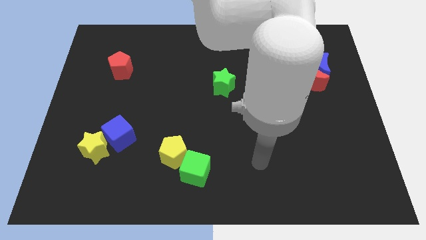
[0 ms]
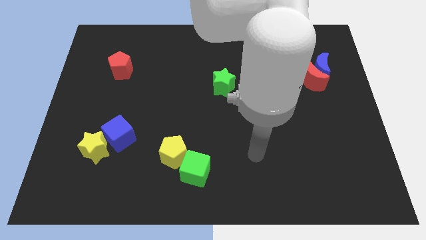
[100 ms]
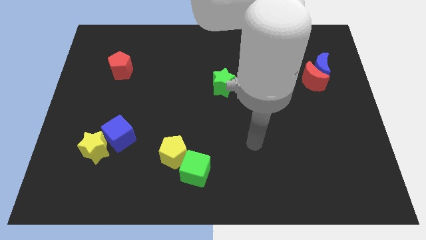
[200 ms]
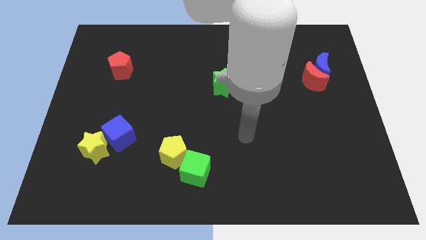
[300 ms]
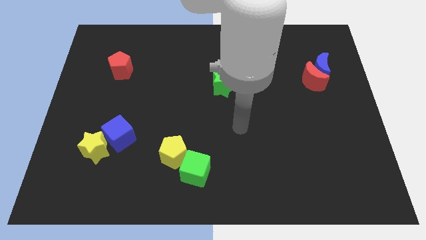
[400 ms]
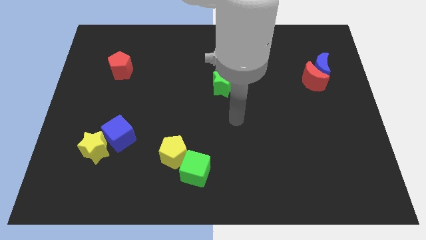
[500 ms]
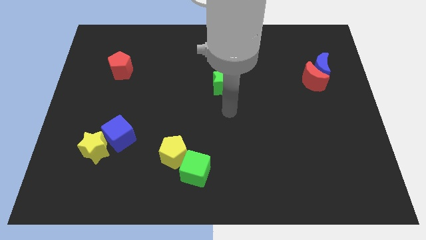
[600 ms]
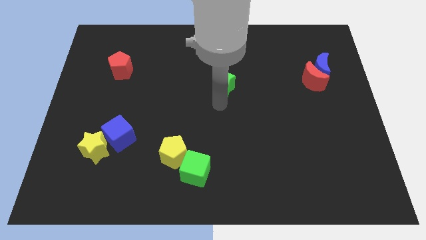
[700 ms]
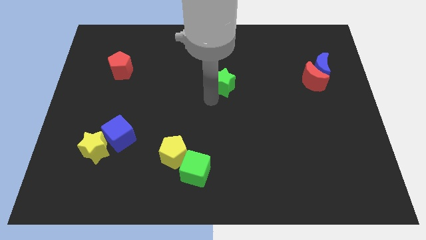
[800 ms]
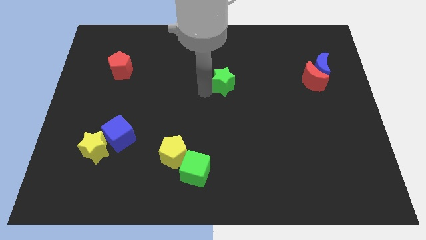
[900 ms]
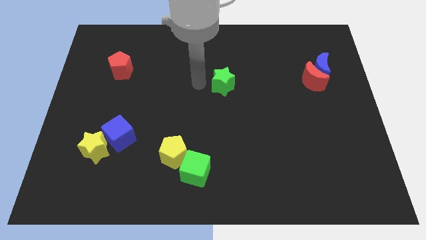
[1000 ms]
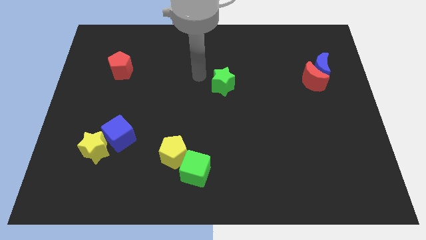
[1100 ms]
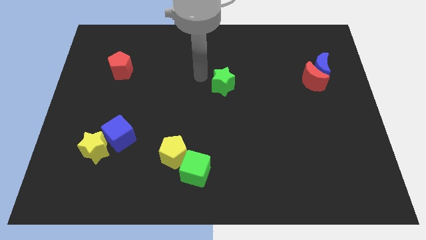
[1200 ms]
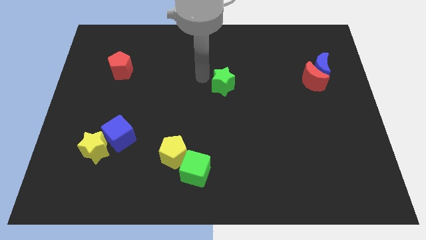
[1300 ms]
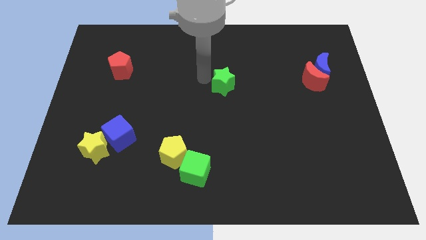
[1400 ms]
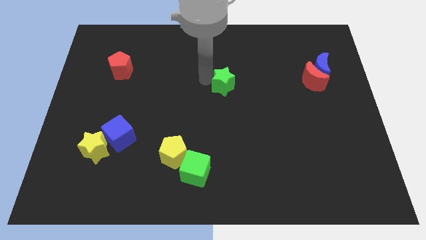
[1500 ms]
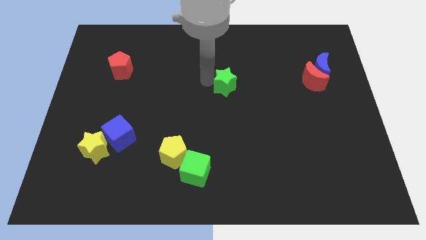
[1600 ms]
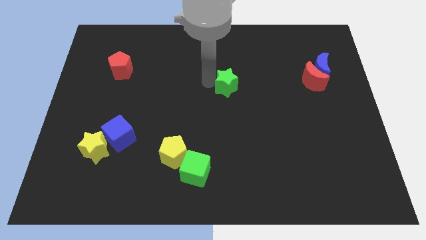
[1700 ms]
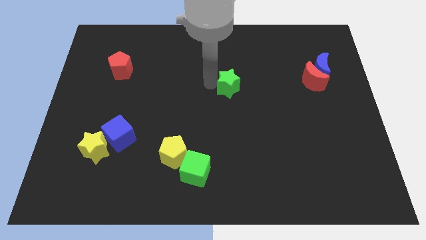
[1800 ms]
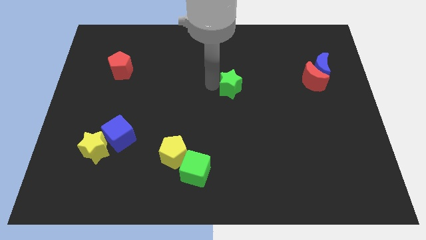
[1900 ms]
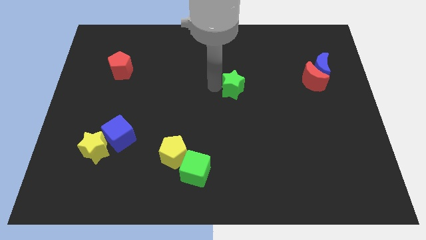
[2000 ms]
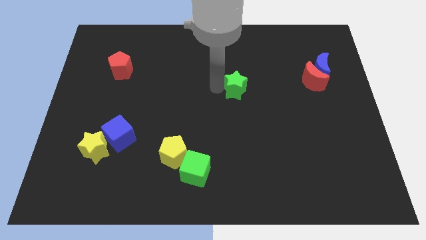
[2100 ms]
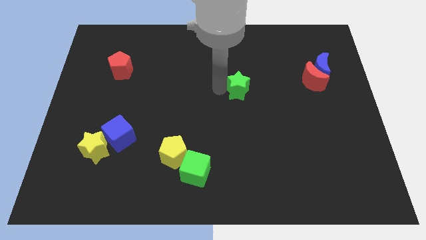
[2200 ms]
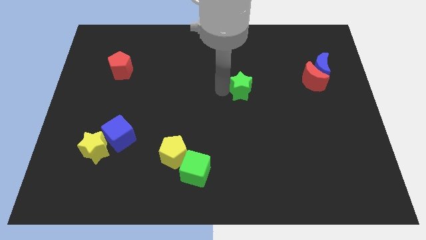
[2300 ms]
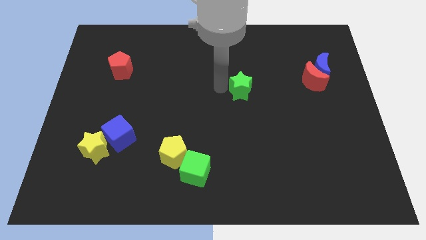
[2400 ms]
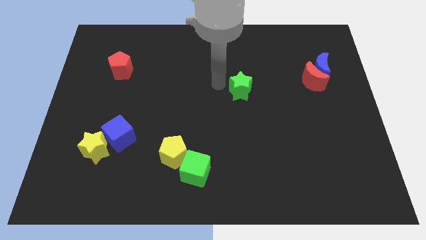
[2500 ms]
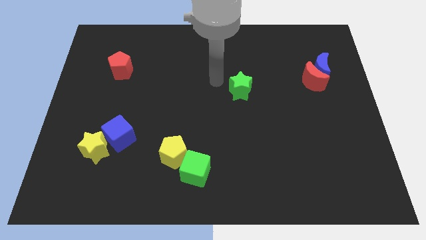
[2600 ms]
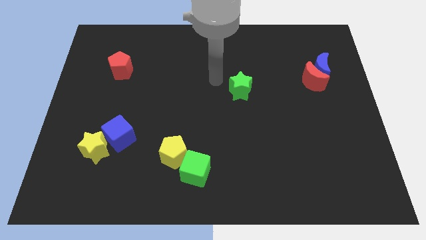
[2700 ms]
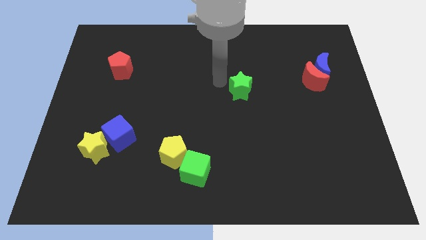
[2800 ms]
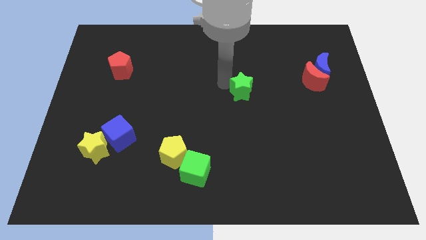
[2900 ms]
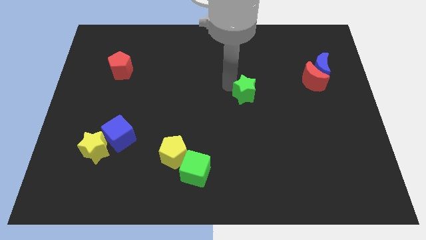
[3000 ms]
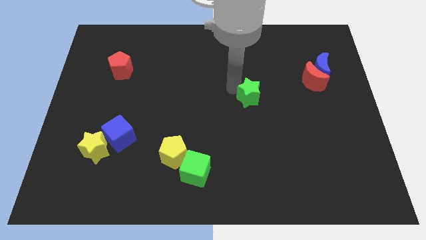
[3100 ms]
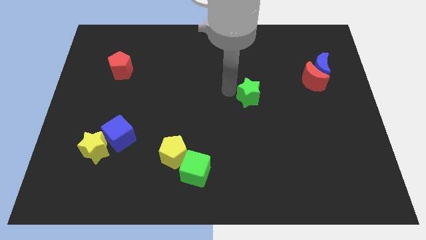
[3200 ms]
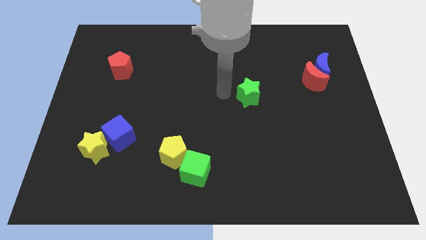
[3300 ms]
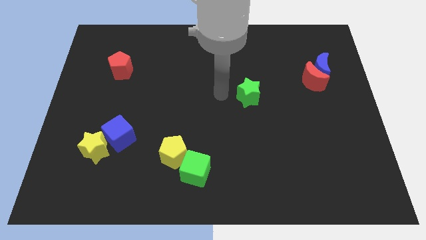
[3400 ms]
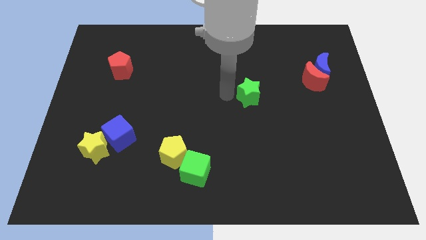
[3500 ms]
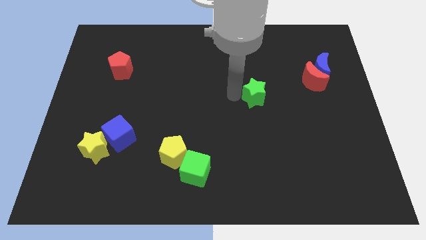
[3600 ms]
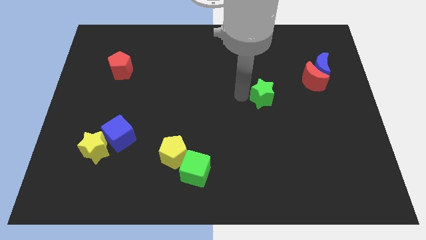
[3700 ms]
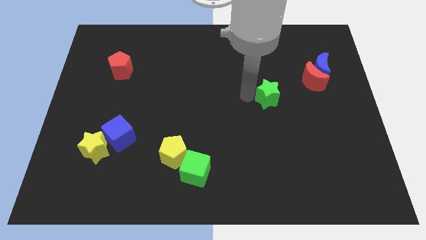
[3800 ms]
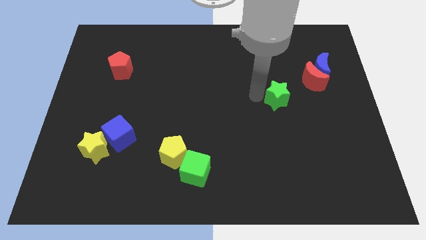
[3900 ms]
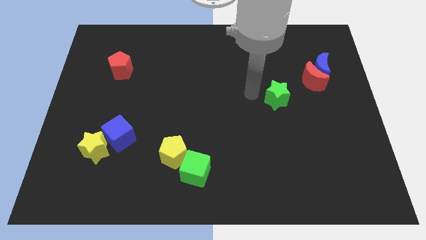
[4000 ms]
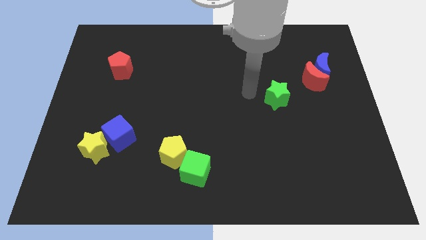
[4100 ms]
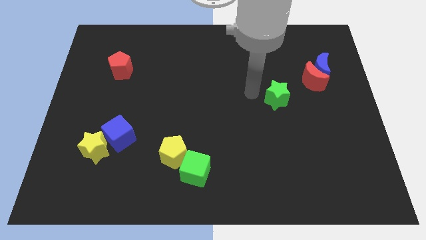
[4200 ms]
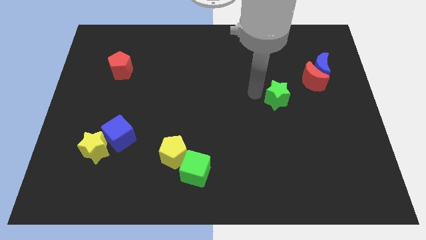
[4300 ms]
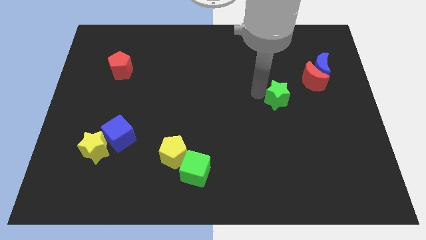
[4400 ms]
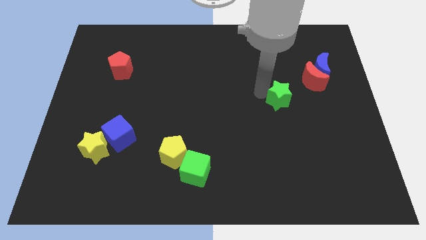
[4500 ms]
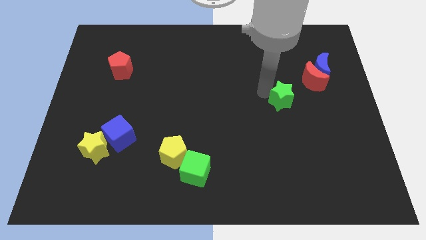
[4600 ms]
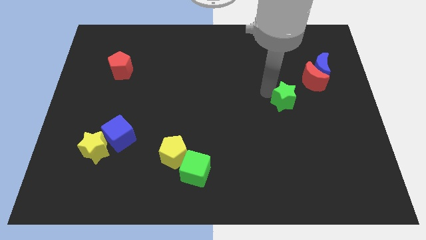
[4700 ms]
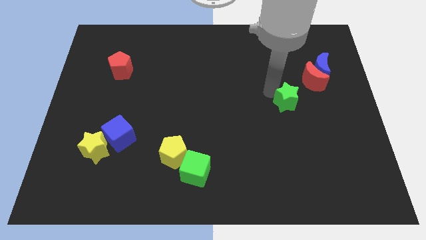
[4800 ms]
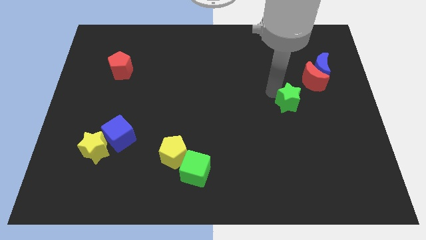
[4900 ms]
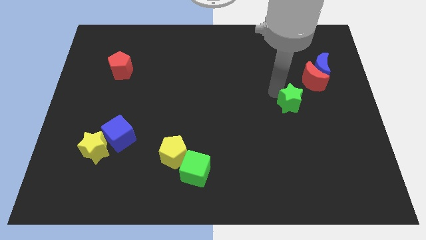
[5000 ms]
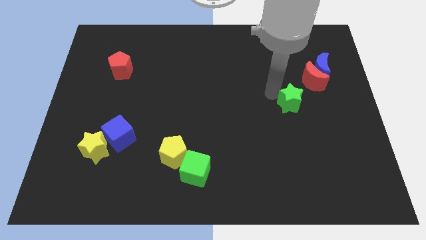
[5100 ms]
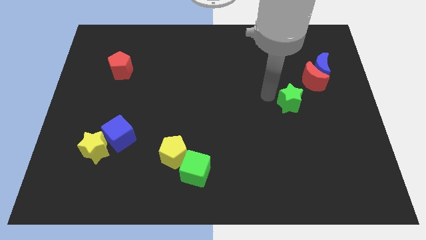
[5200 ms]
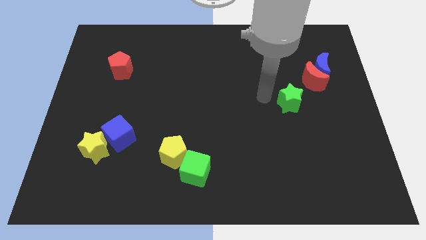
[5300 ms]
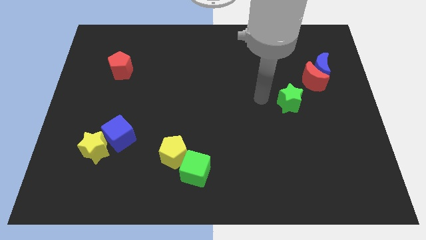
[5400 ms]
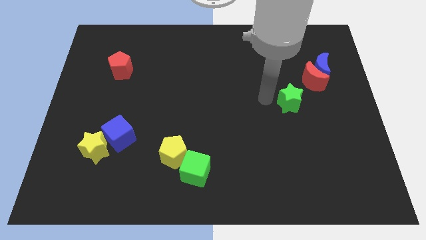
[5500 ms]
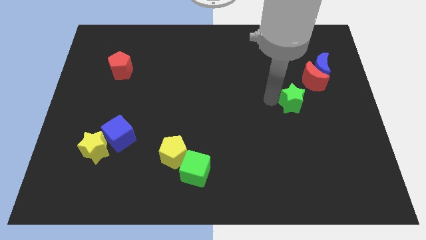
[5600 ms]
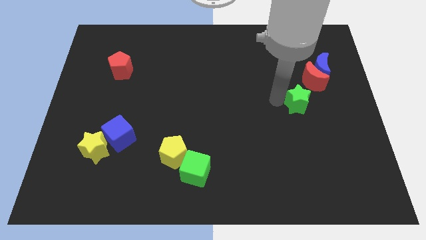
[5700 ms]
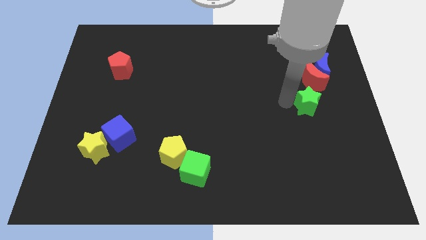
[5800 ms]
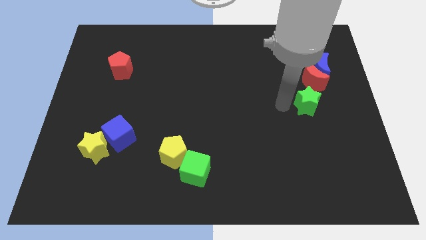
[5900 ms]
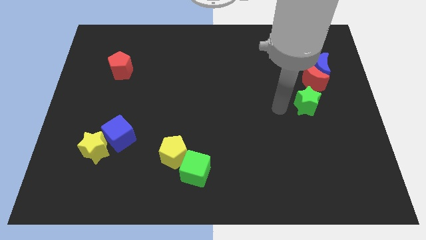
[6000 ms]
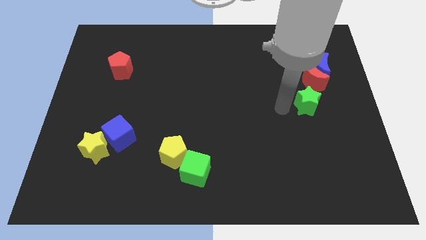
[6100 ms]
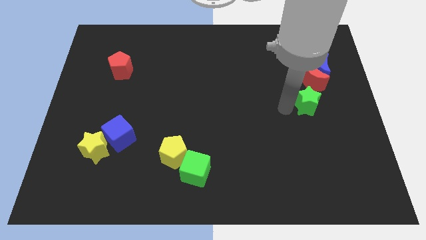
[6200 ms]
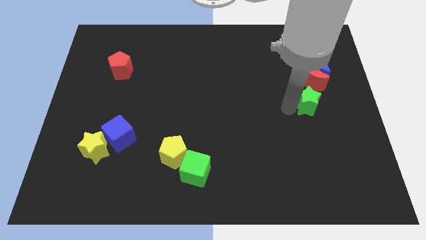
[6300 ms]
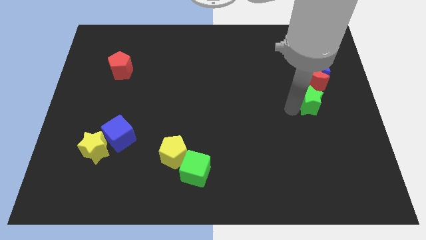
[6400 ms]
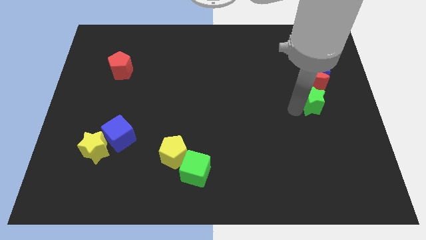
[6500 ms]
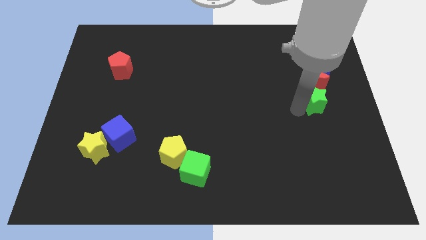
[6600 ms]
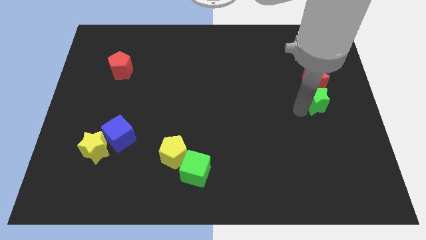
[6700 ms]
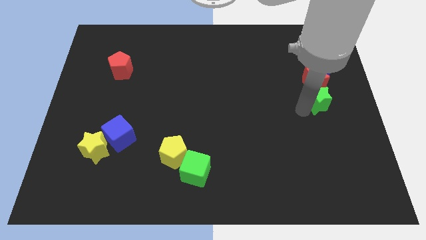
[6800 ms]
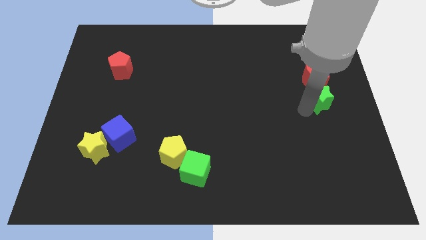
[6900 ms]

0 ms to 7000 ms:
push the green star to the right side

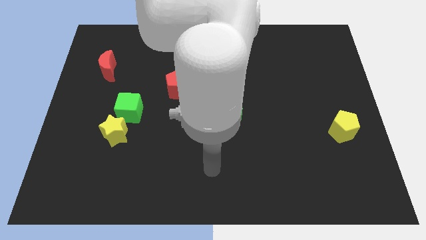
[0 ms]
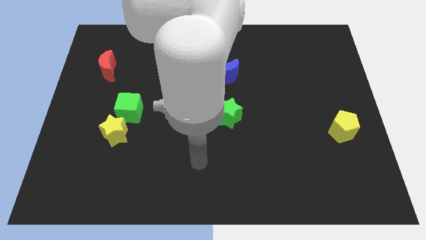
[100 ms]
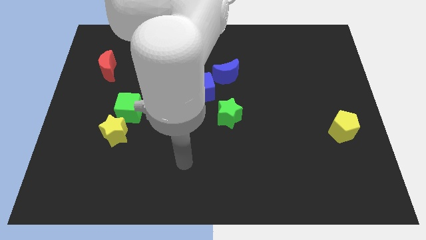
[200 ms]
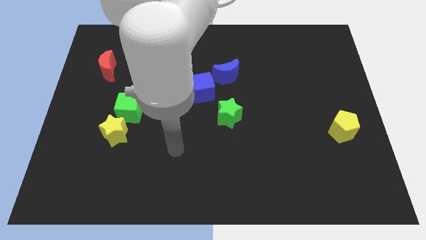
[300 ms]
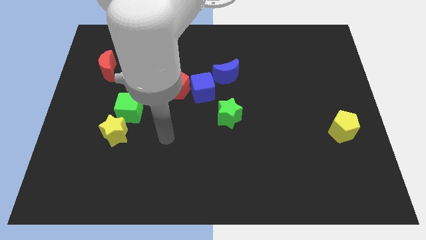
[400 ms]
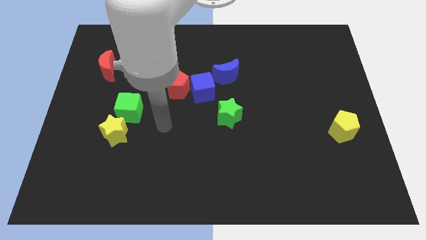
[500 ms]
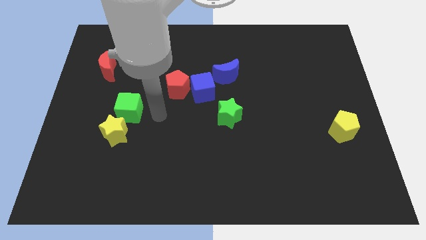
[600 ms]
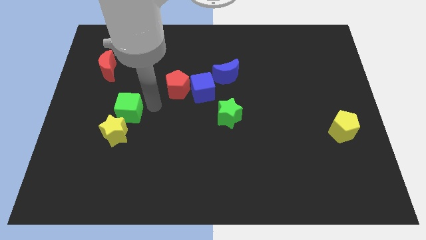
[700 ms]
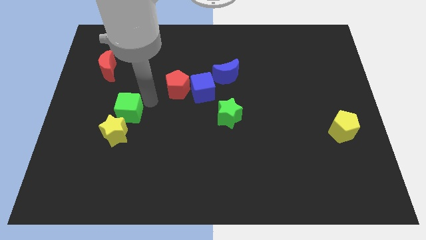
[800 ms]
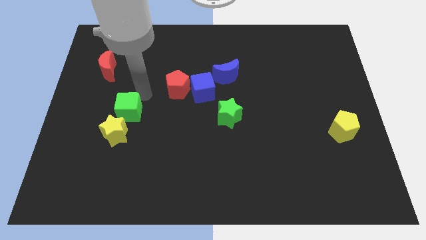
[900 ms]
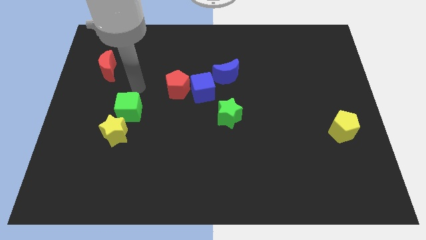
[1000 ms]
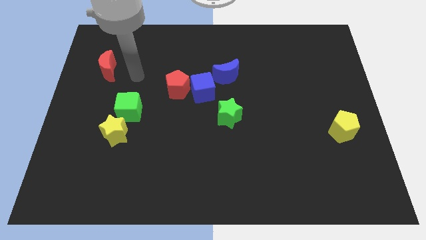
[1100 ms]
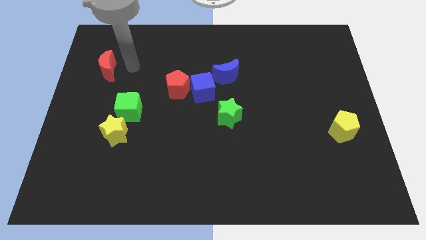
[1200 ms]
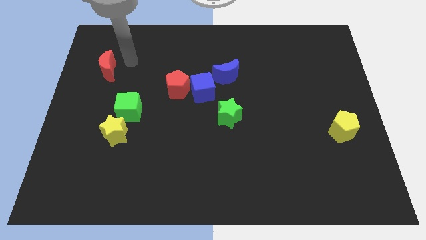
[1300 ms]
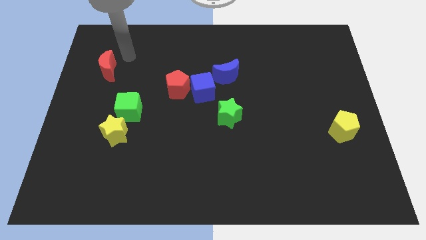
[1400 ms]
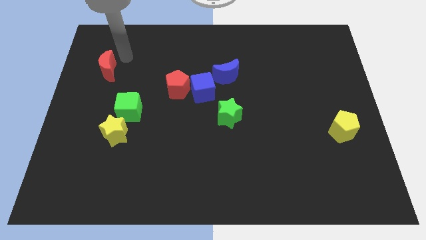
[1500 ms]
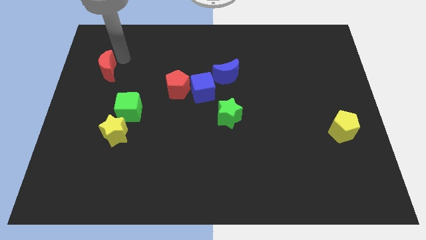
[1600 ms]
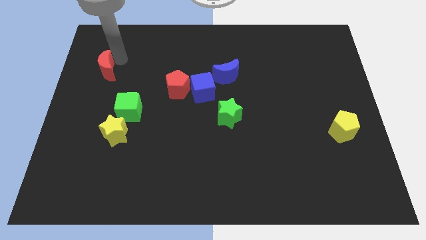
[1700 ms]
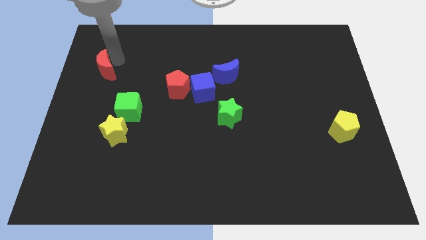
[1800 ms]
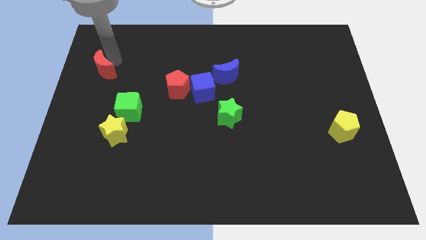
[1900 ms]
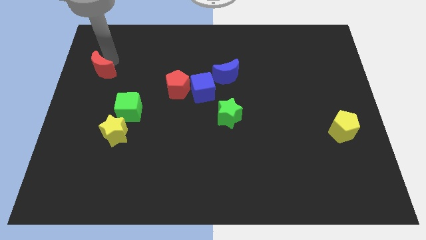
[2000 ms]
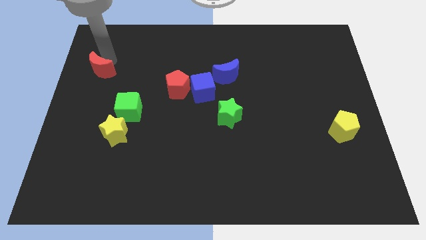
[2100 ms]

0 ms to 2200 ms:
put the red moon to the left side of the board
